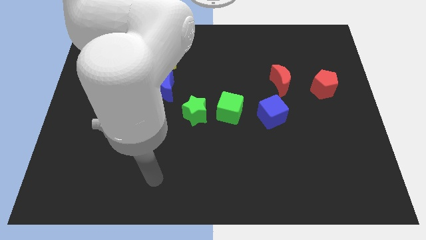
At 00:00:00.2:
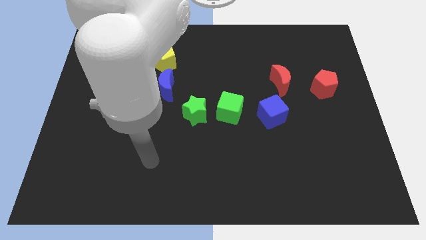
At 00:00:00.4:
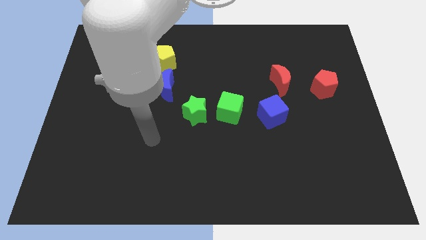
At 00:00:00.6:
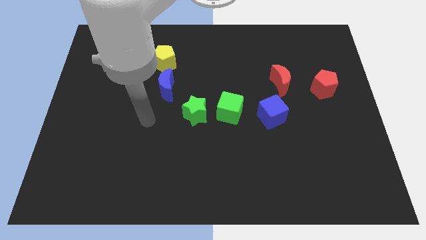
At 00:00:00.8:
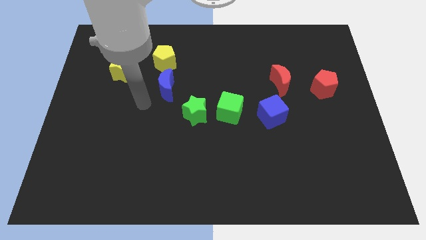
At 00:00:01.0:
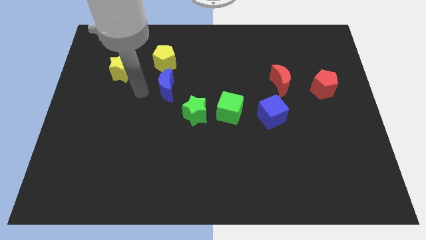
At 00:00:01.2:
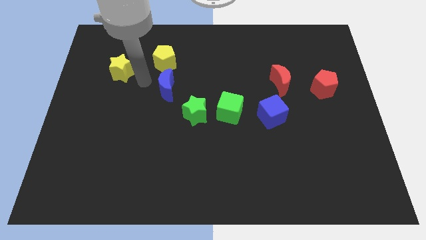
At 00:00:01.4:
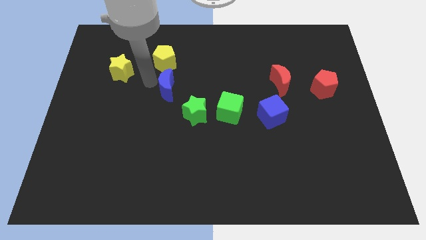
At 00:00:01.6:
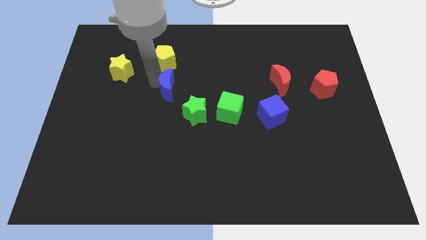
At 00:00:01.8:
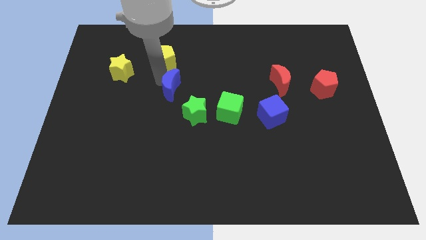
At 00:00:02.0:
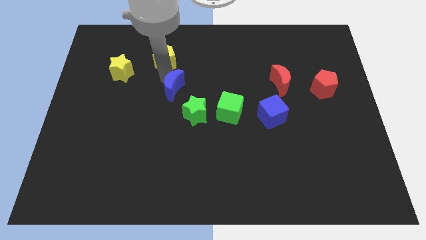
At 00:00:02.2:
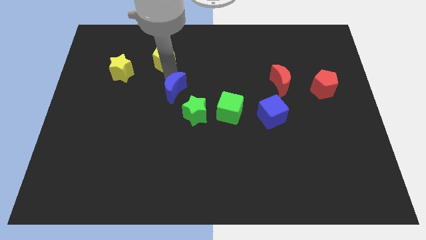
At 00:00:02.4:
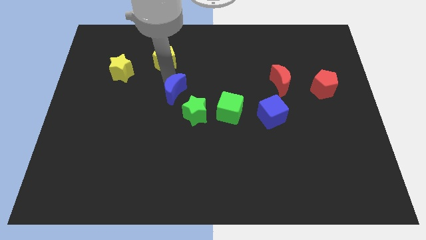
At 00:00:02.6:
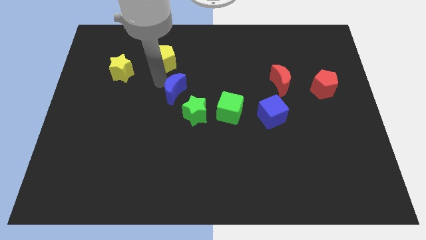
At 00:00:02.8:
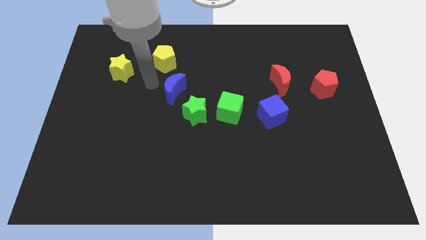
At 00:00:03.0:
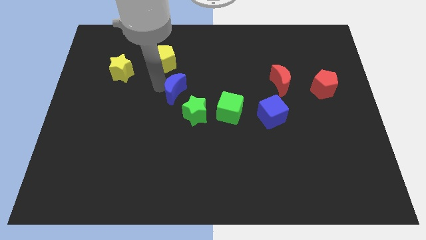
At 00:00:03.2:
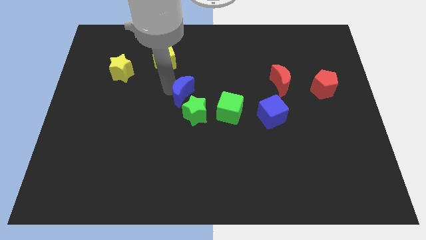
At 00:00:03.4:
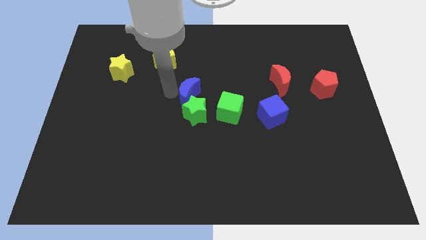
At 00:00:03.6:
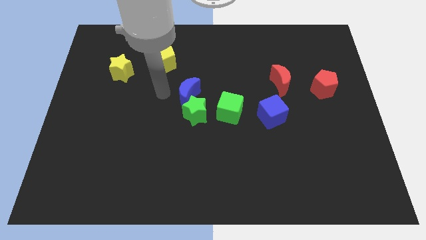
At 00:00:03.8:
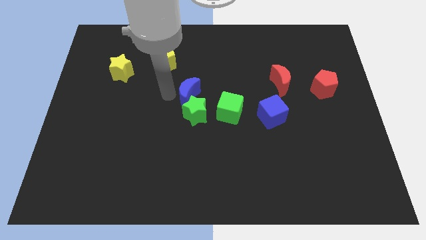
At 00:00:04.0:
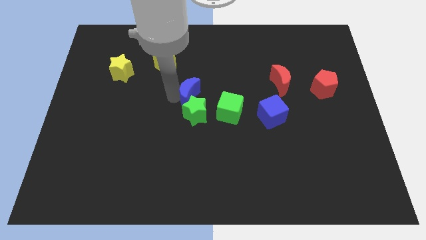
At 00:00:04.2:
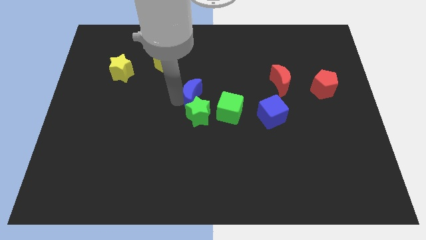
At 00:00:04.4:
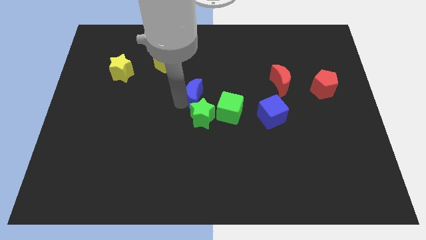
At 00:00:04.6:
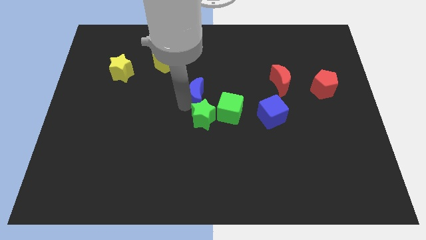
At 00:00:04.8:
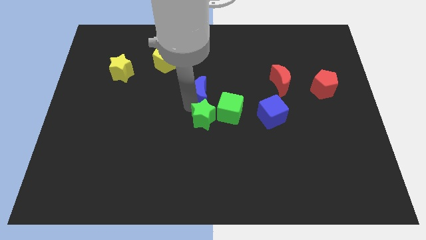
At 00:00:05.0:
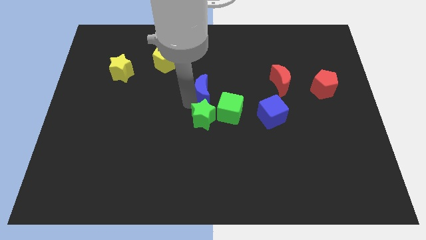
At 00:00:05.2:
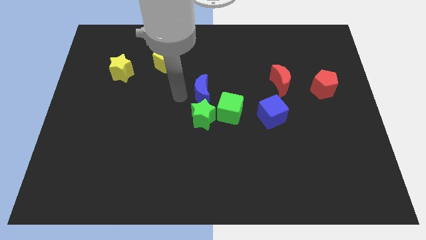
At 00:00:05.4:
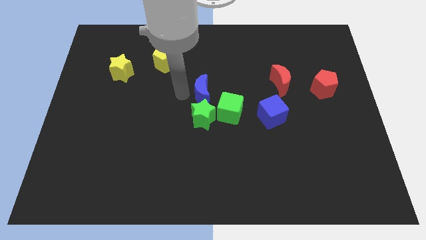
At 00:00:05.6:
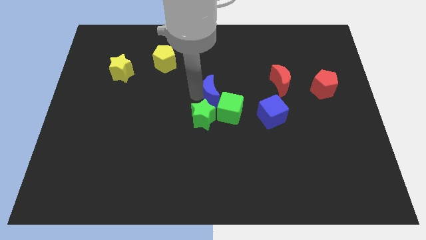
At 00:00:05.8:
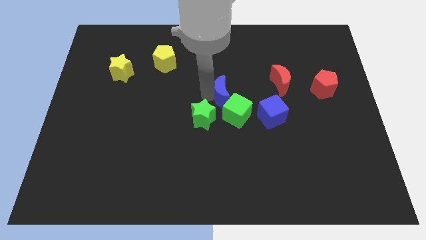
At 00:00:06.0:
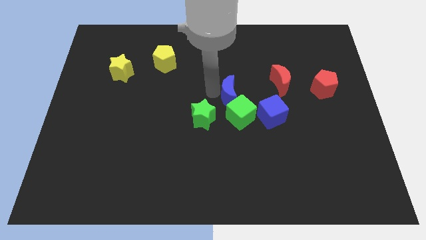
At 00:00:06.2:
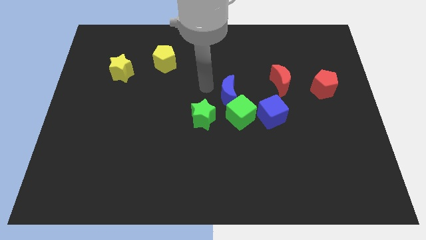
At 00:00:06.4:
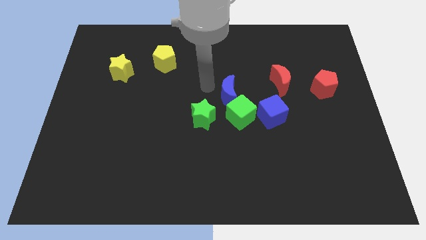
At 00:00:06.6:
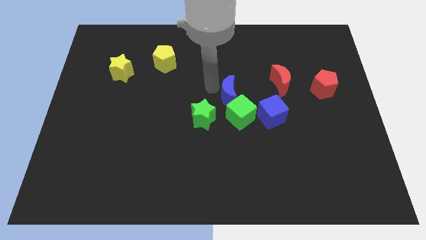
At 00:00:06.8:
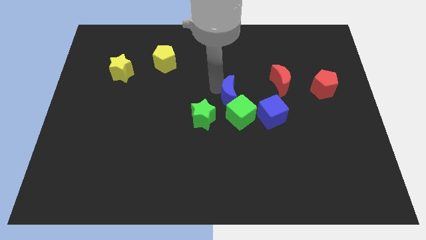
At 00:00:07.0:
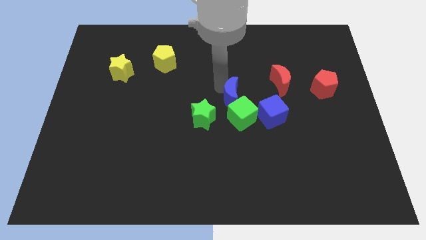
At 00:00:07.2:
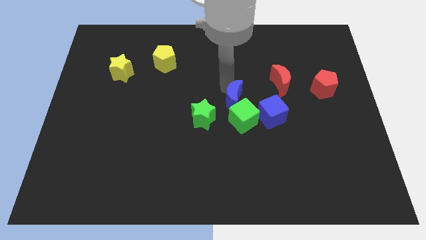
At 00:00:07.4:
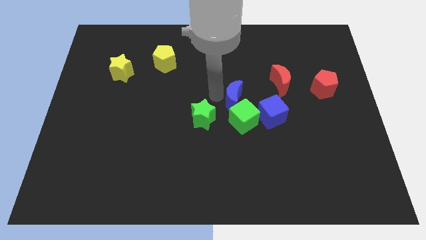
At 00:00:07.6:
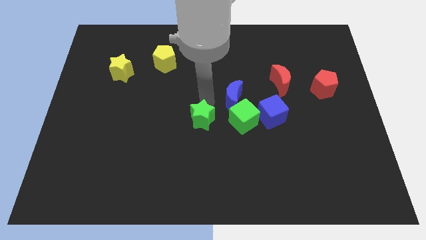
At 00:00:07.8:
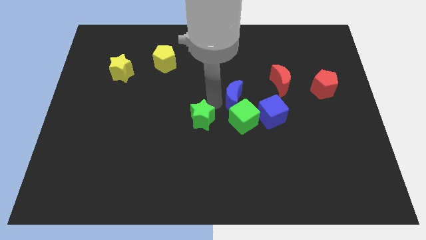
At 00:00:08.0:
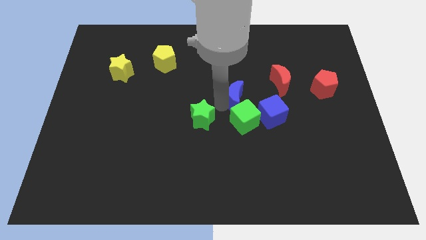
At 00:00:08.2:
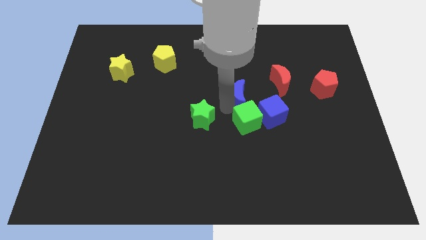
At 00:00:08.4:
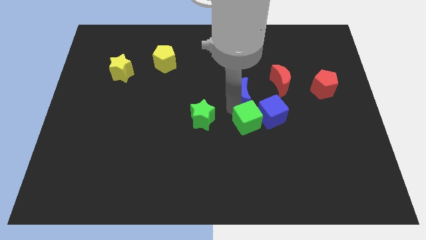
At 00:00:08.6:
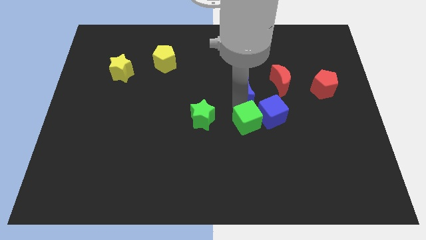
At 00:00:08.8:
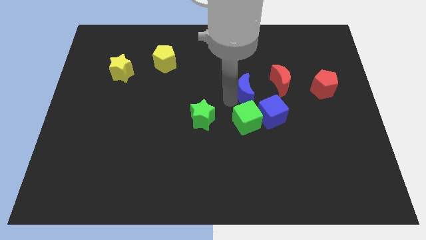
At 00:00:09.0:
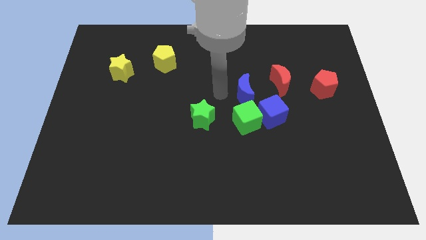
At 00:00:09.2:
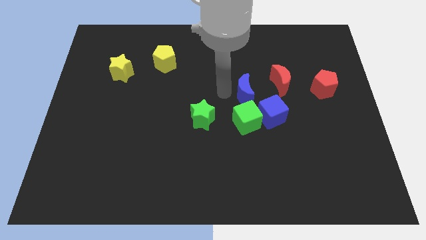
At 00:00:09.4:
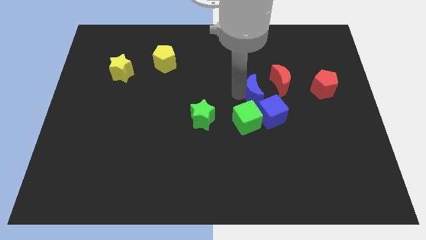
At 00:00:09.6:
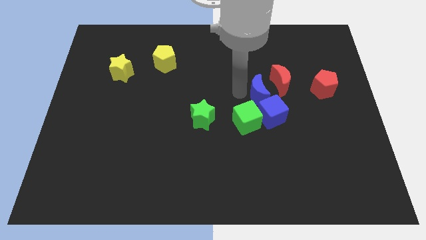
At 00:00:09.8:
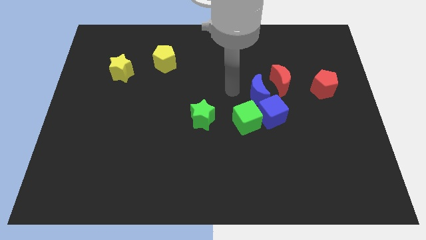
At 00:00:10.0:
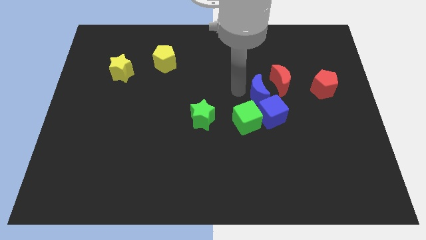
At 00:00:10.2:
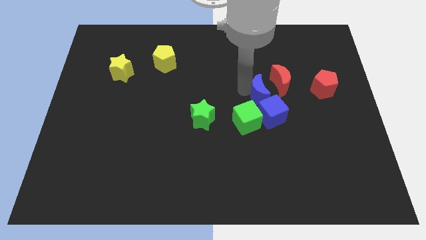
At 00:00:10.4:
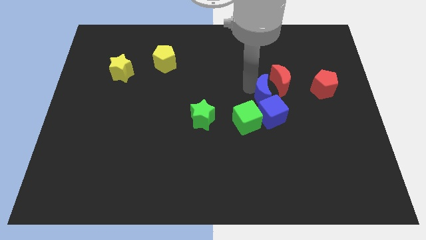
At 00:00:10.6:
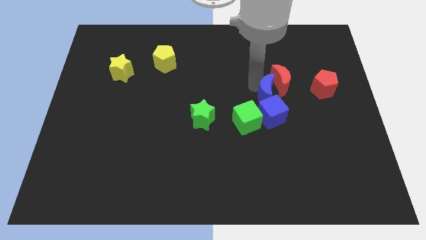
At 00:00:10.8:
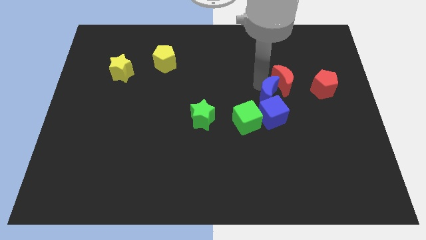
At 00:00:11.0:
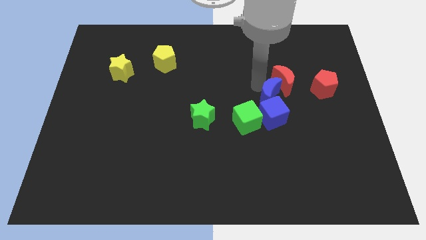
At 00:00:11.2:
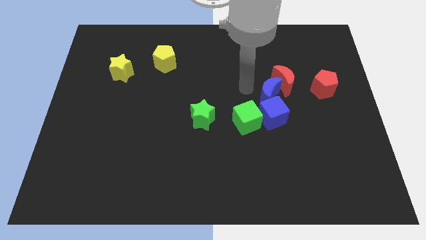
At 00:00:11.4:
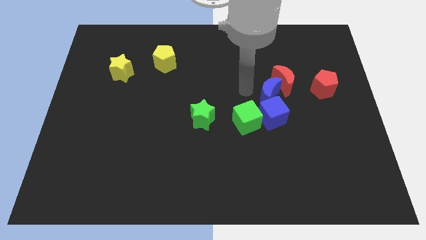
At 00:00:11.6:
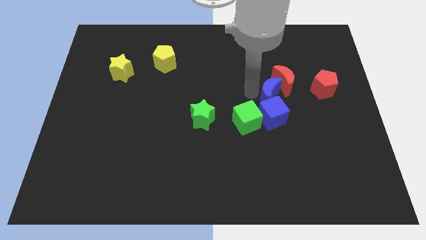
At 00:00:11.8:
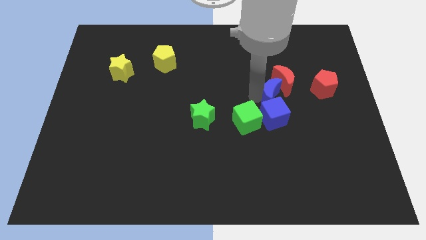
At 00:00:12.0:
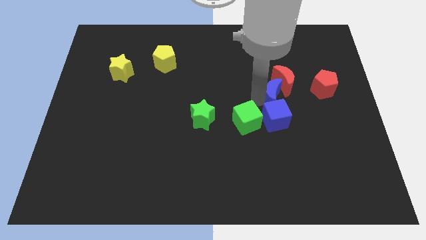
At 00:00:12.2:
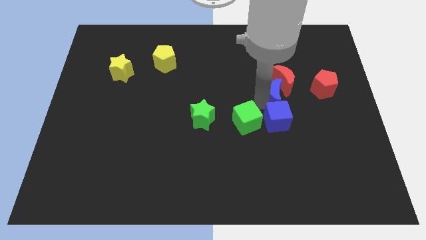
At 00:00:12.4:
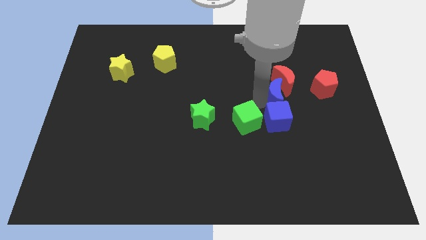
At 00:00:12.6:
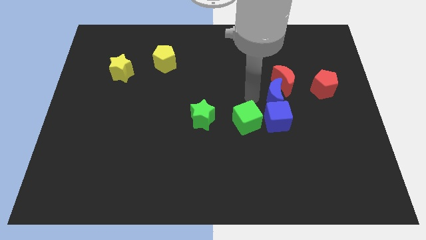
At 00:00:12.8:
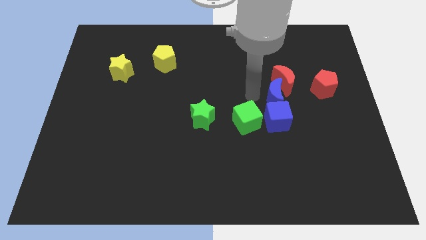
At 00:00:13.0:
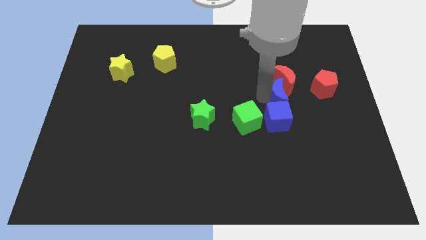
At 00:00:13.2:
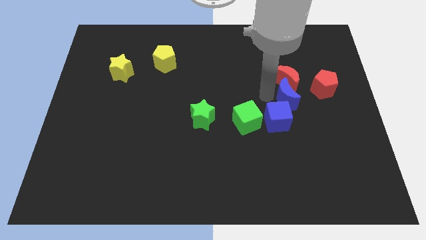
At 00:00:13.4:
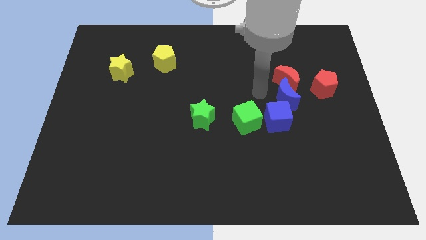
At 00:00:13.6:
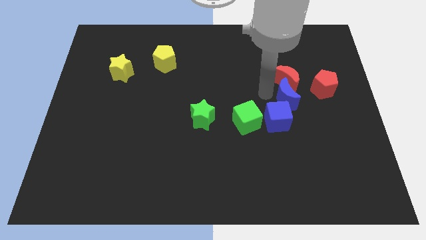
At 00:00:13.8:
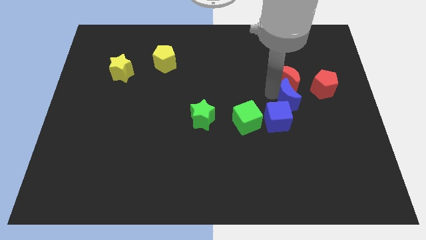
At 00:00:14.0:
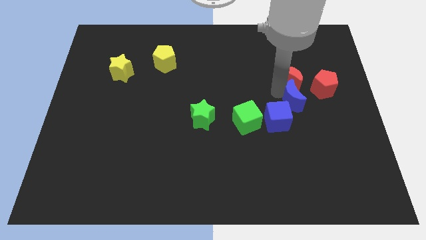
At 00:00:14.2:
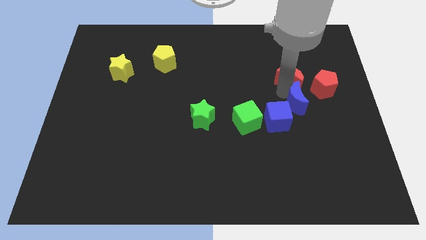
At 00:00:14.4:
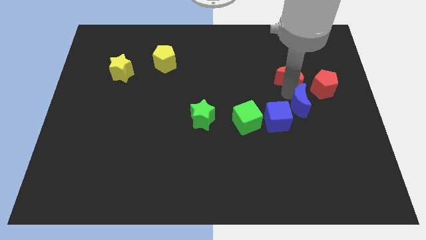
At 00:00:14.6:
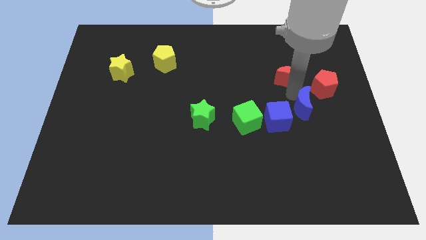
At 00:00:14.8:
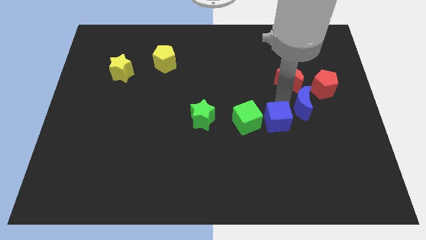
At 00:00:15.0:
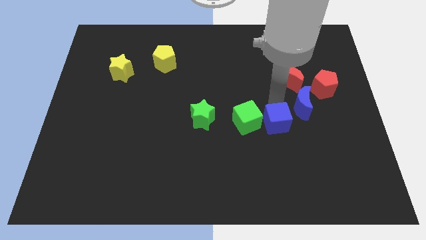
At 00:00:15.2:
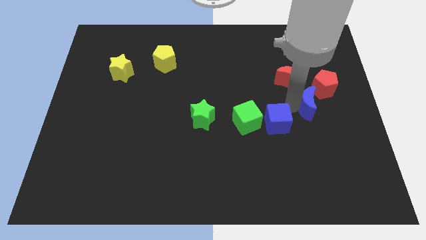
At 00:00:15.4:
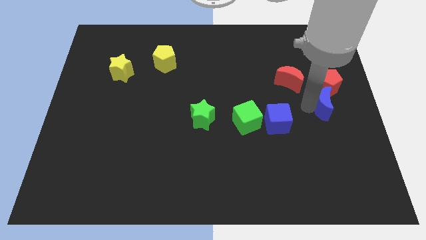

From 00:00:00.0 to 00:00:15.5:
push the blue moon to the center right
